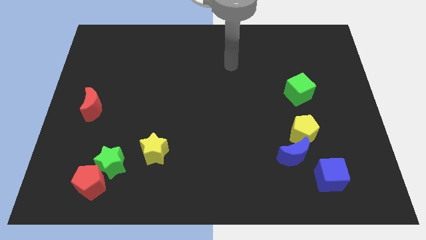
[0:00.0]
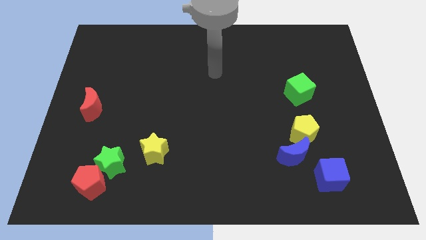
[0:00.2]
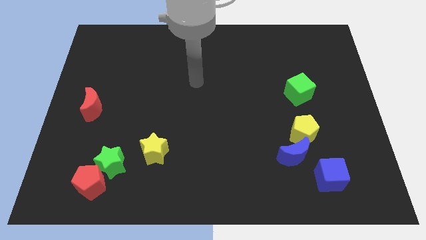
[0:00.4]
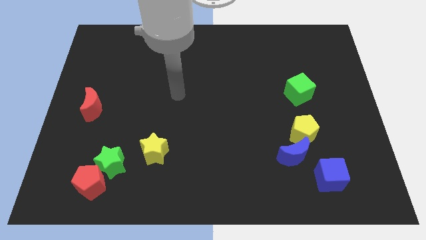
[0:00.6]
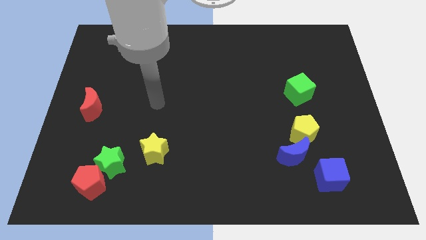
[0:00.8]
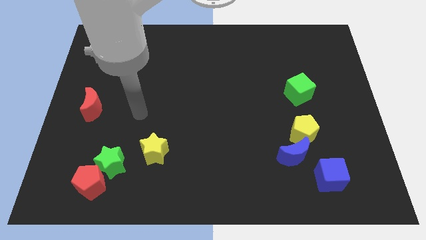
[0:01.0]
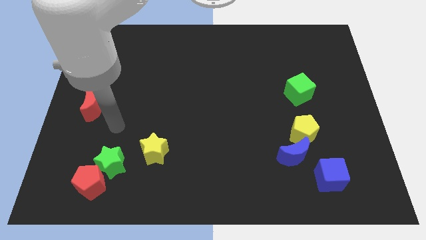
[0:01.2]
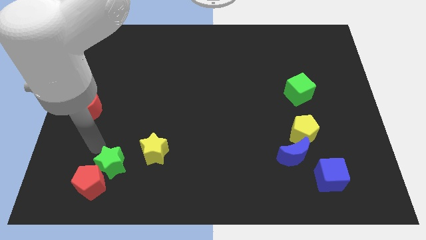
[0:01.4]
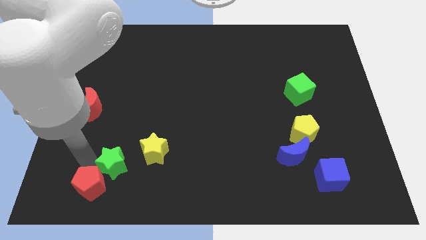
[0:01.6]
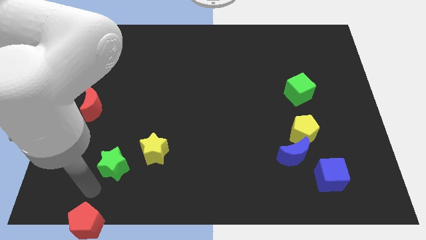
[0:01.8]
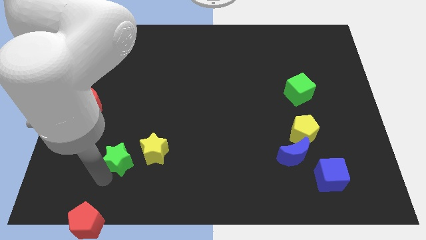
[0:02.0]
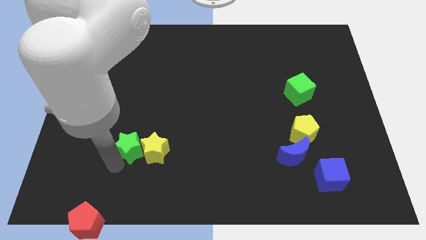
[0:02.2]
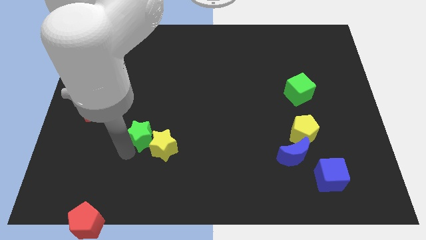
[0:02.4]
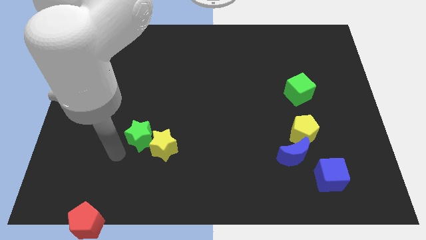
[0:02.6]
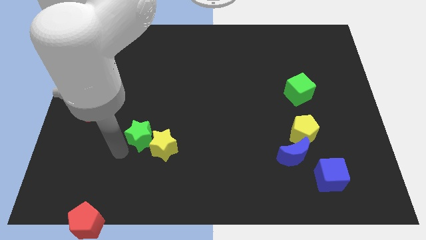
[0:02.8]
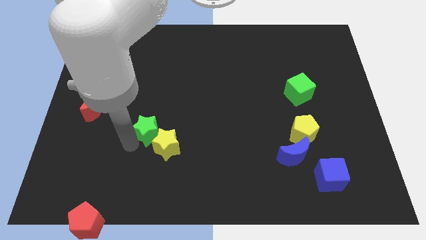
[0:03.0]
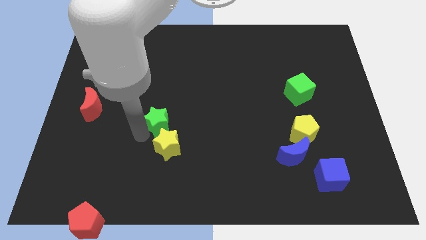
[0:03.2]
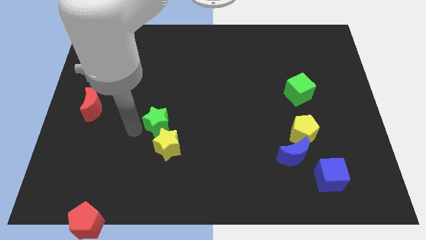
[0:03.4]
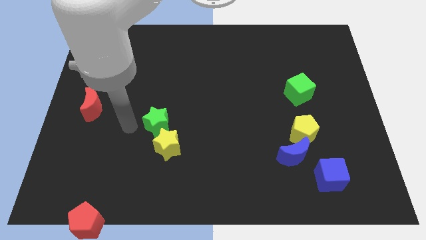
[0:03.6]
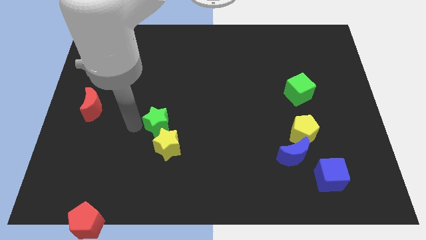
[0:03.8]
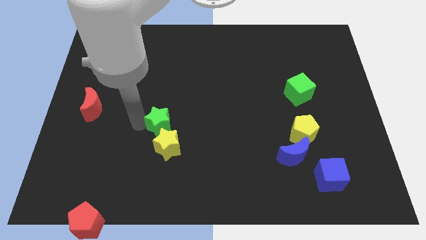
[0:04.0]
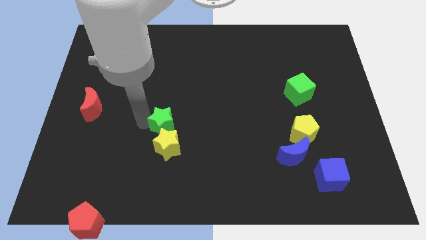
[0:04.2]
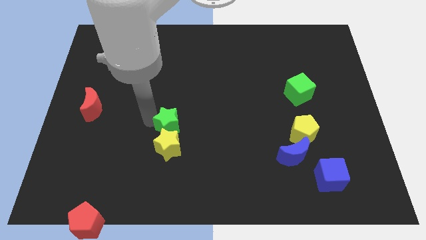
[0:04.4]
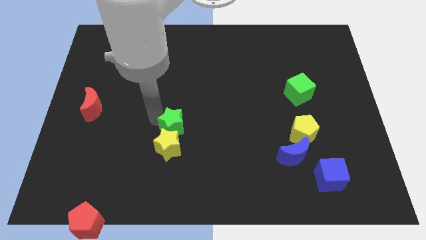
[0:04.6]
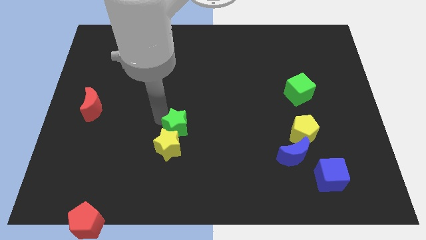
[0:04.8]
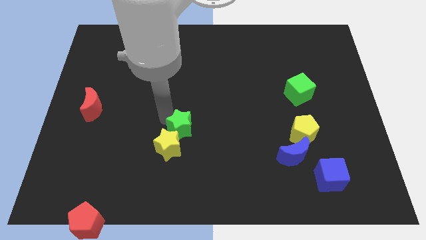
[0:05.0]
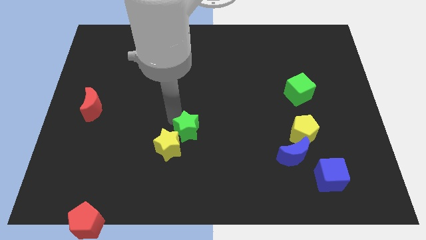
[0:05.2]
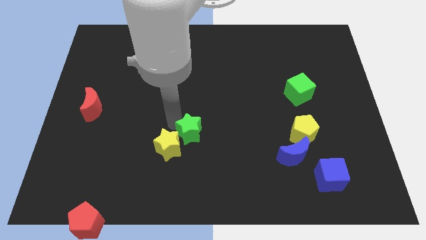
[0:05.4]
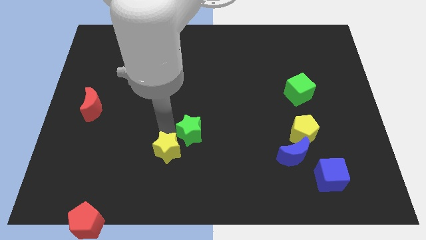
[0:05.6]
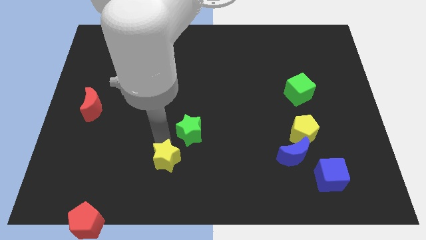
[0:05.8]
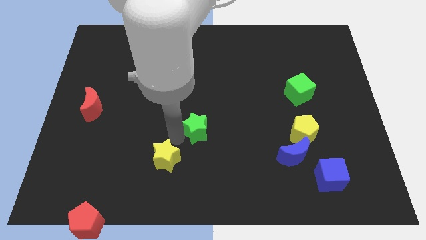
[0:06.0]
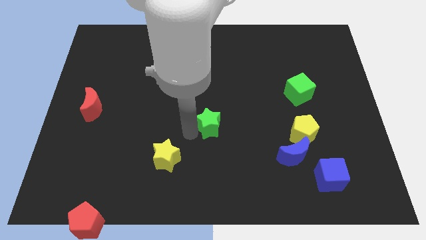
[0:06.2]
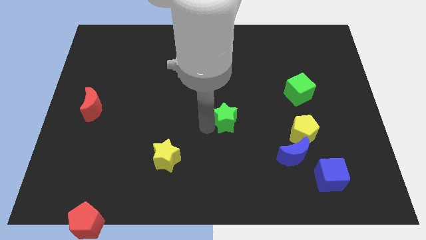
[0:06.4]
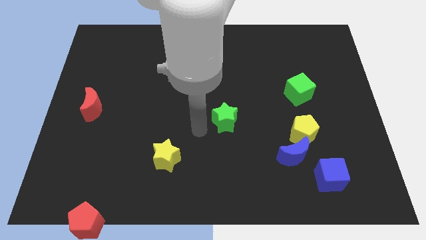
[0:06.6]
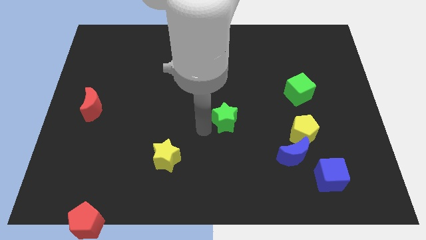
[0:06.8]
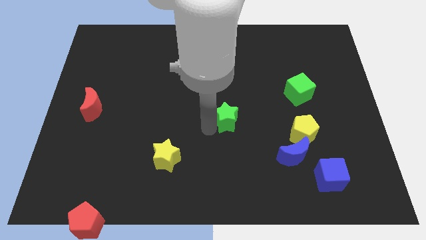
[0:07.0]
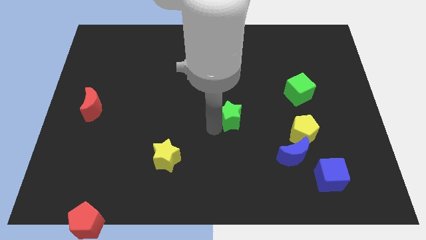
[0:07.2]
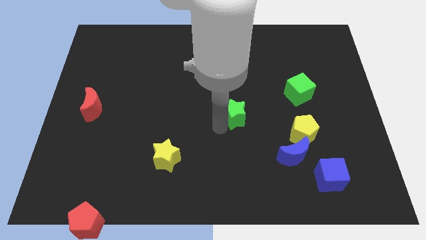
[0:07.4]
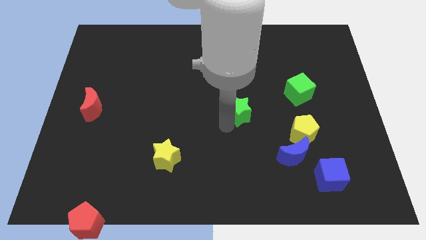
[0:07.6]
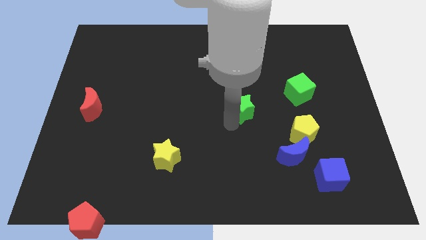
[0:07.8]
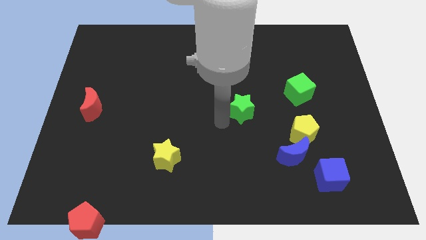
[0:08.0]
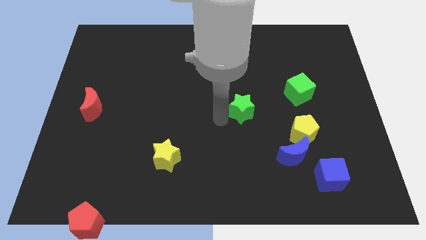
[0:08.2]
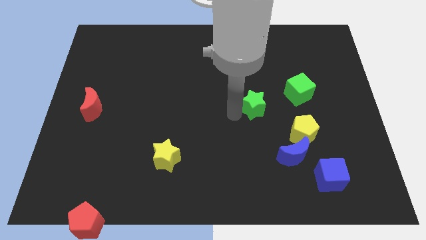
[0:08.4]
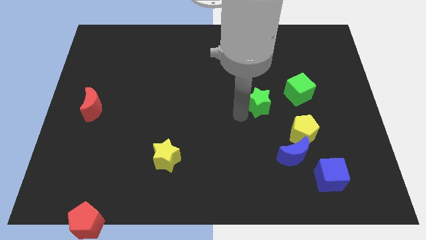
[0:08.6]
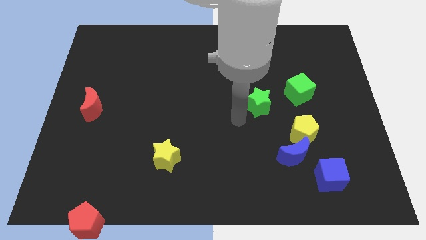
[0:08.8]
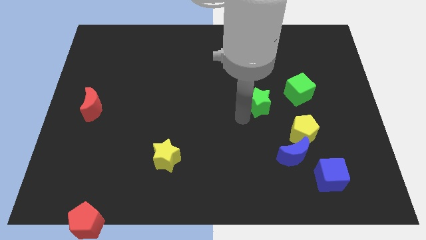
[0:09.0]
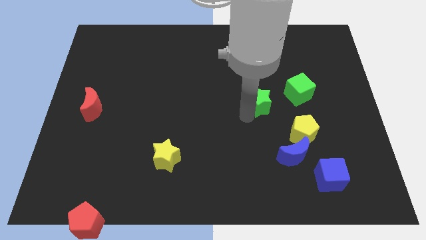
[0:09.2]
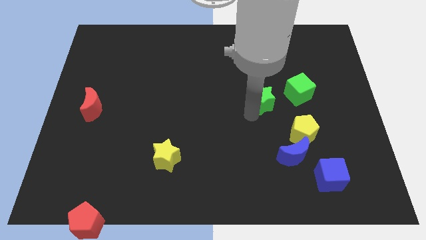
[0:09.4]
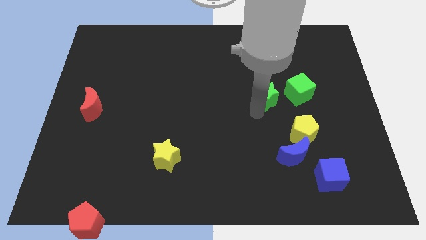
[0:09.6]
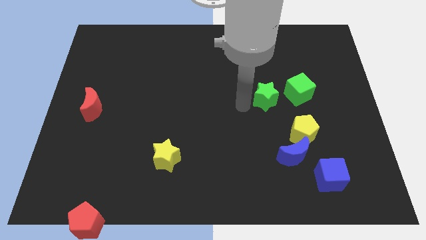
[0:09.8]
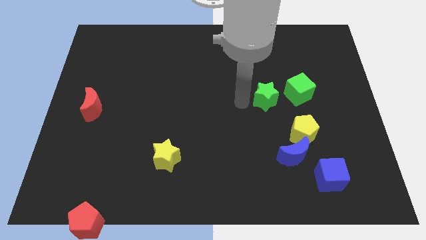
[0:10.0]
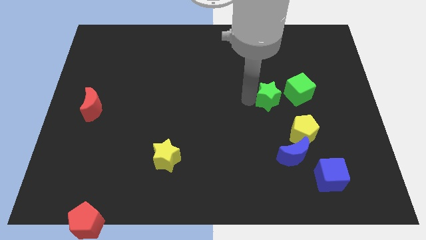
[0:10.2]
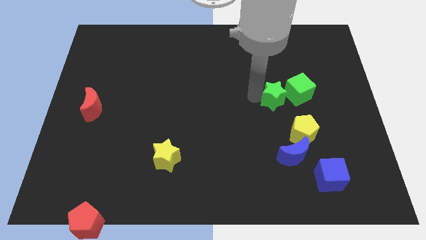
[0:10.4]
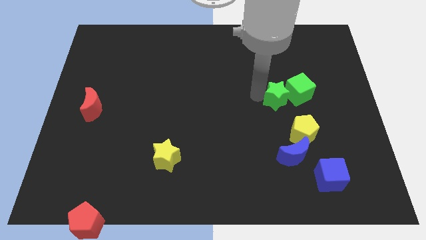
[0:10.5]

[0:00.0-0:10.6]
move the green star towards the green cube

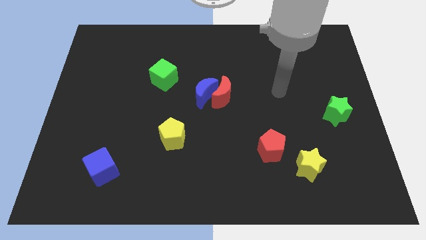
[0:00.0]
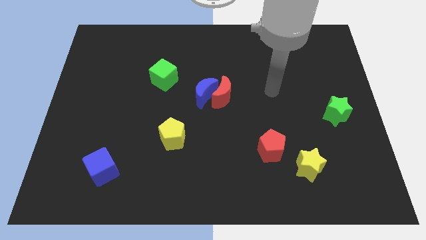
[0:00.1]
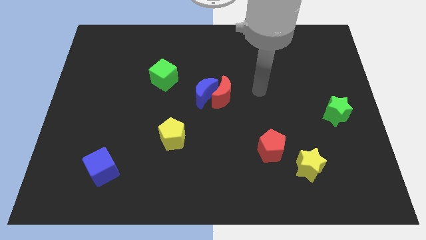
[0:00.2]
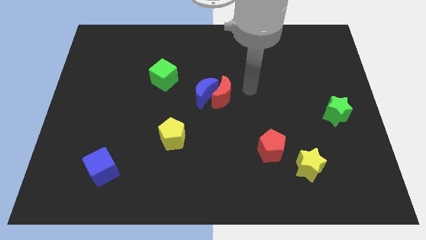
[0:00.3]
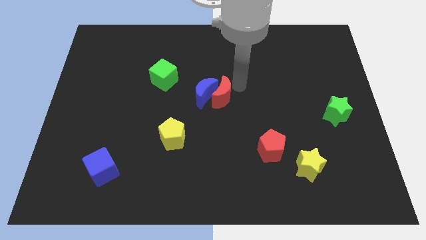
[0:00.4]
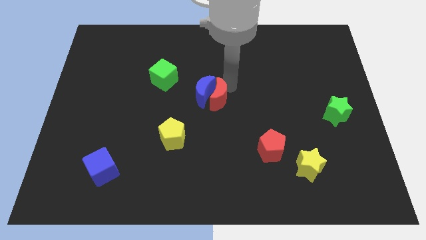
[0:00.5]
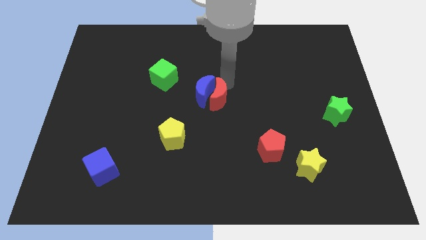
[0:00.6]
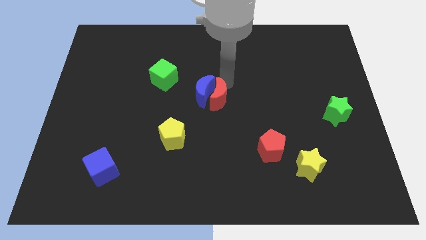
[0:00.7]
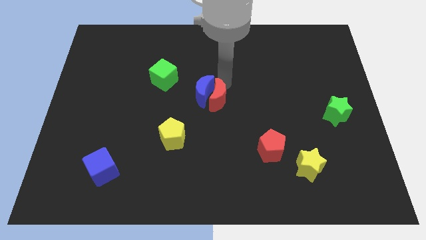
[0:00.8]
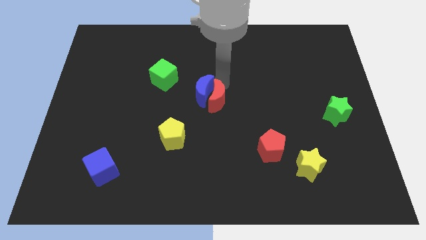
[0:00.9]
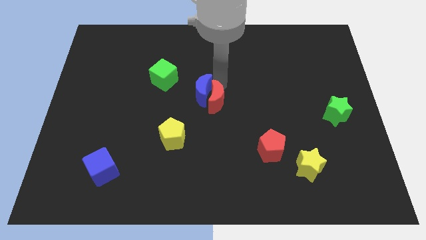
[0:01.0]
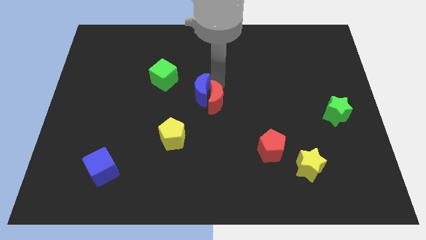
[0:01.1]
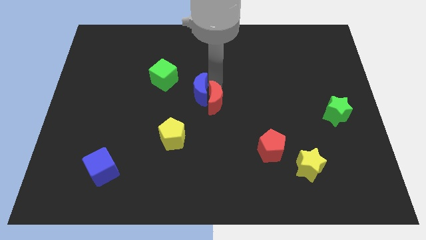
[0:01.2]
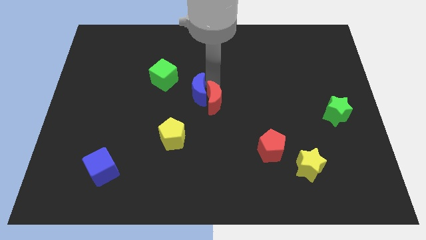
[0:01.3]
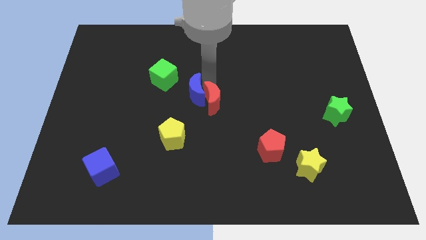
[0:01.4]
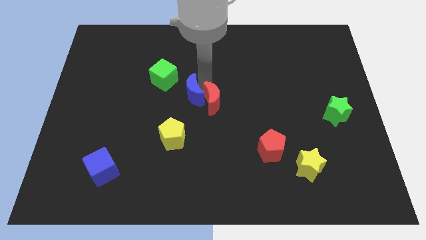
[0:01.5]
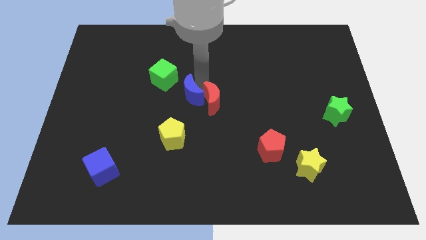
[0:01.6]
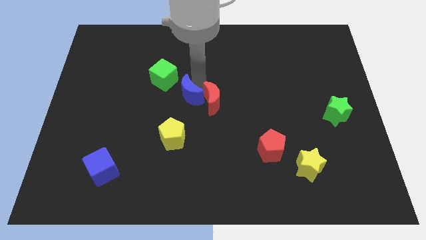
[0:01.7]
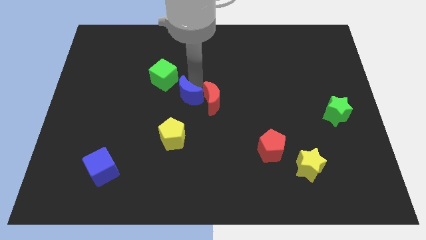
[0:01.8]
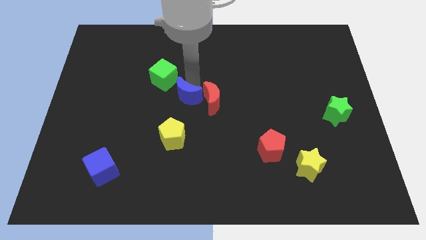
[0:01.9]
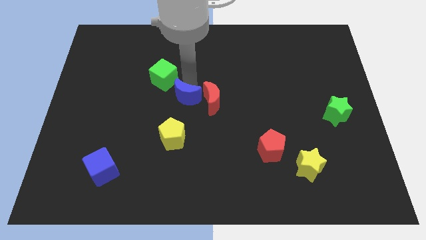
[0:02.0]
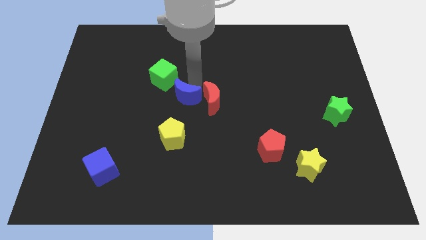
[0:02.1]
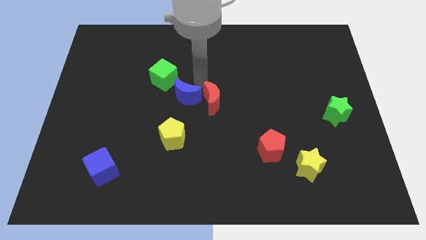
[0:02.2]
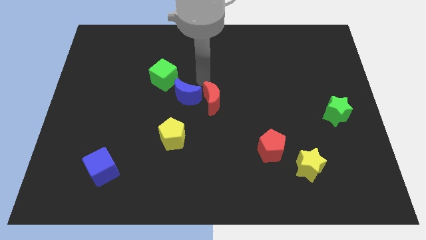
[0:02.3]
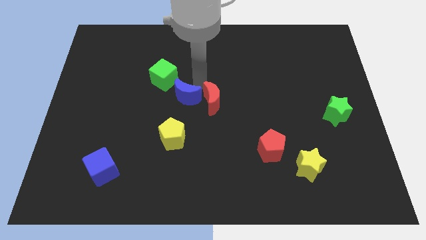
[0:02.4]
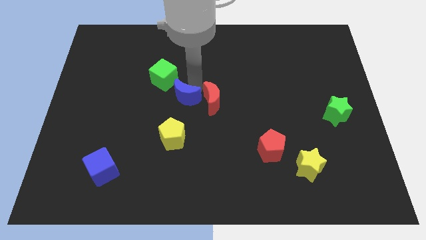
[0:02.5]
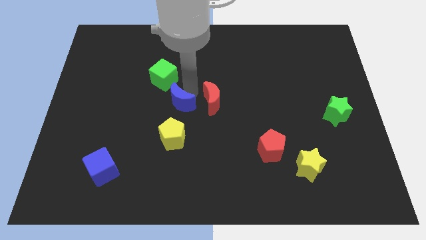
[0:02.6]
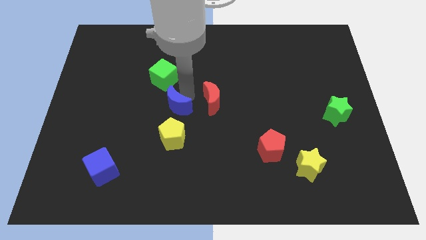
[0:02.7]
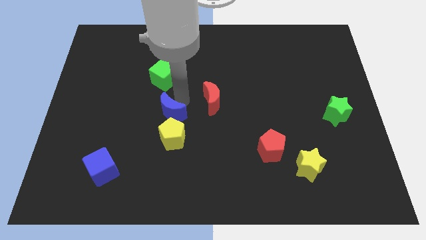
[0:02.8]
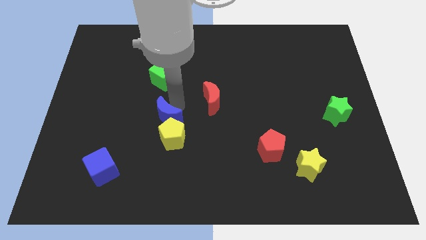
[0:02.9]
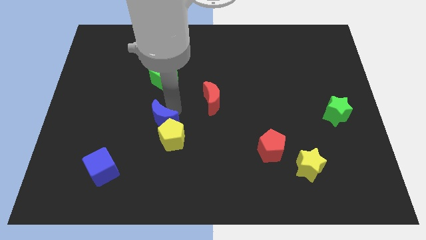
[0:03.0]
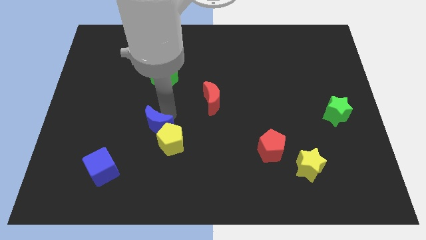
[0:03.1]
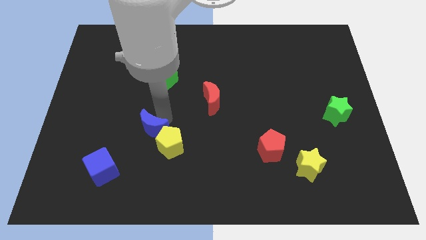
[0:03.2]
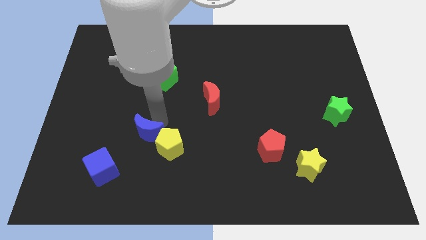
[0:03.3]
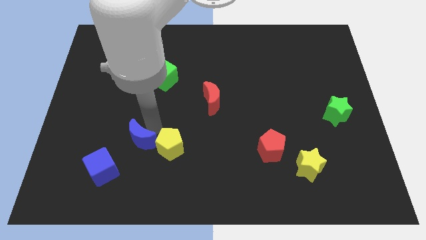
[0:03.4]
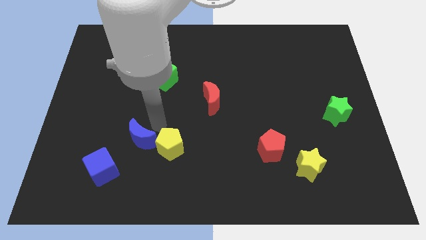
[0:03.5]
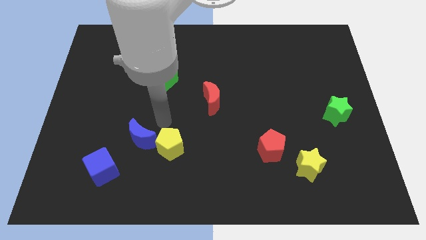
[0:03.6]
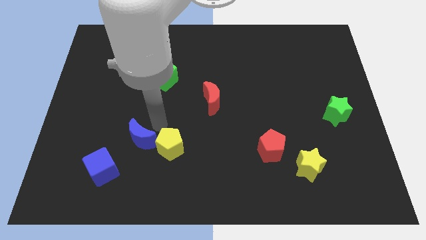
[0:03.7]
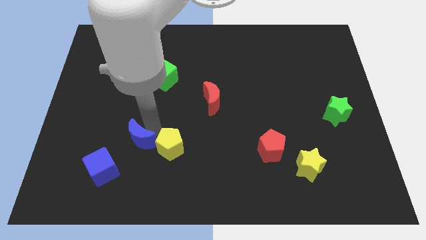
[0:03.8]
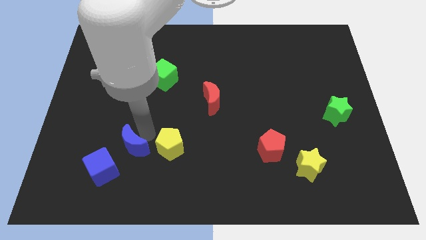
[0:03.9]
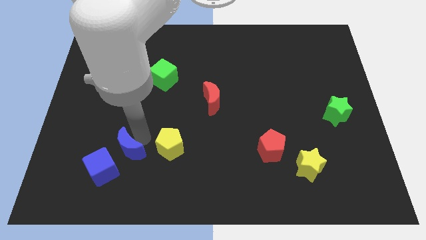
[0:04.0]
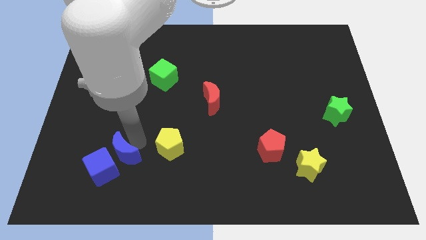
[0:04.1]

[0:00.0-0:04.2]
slide the blue moon to the blue cube
